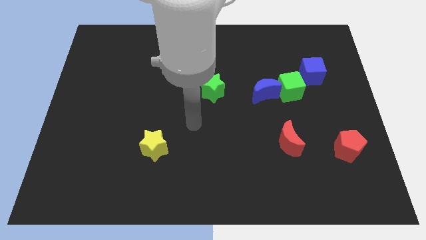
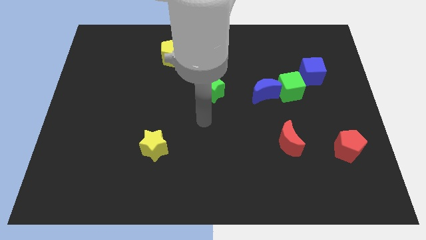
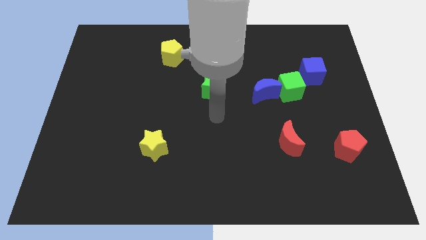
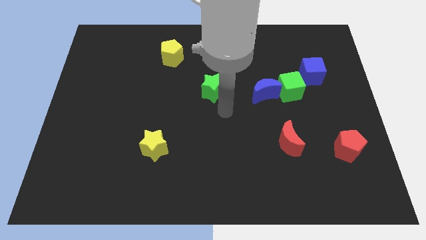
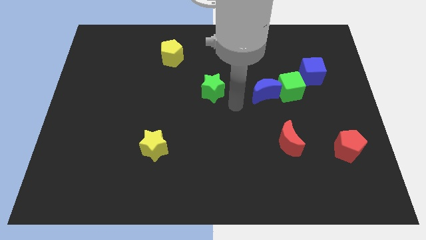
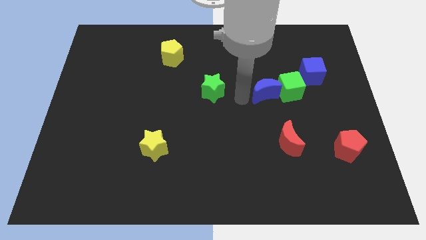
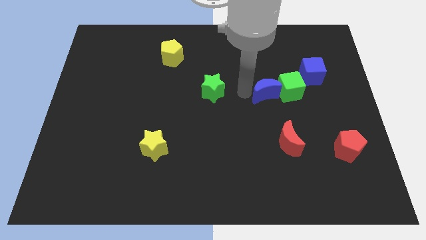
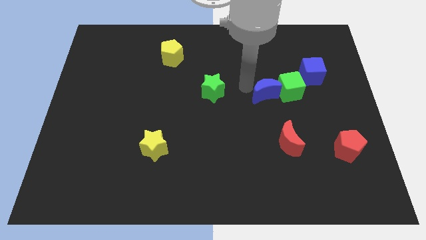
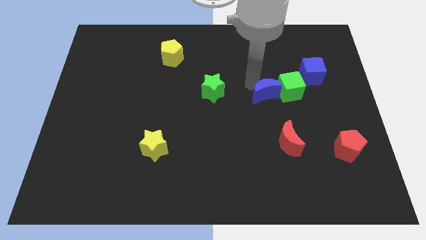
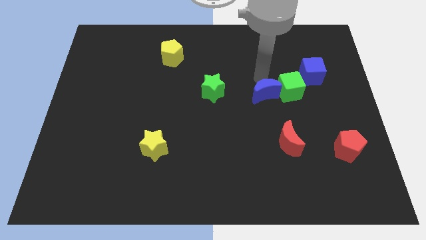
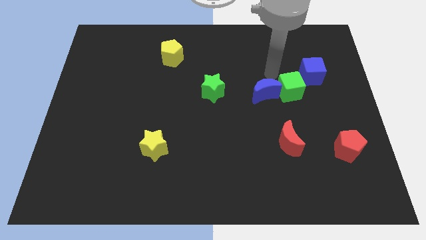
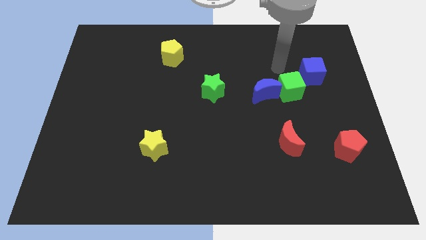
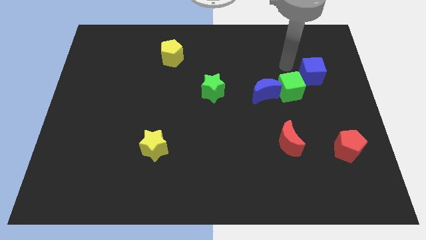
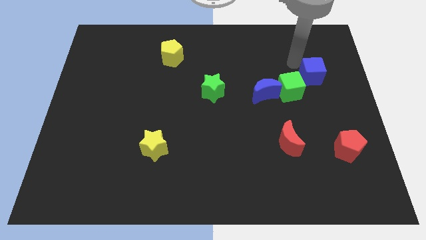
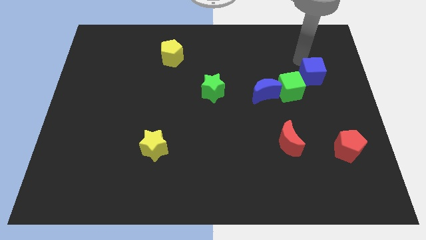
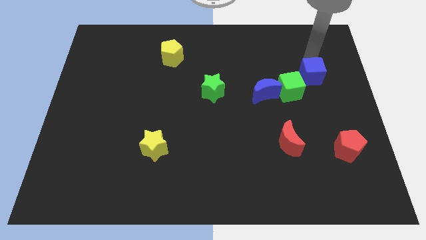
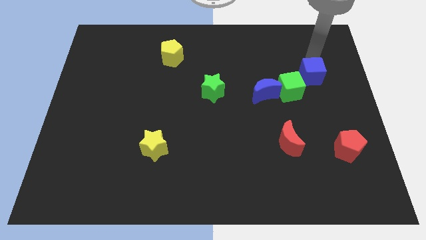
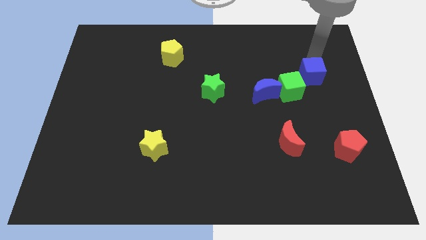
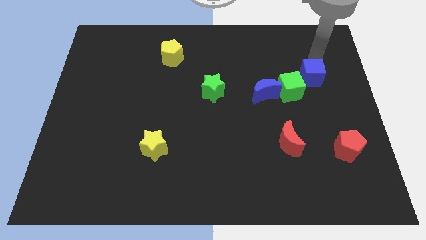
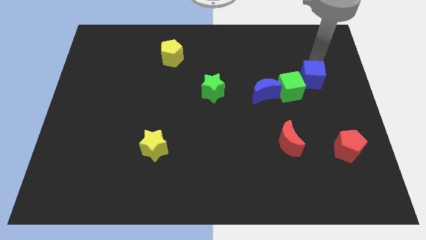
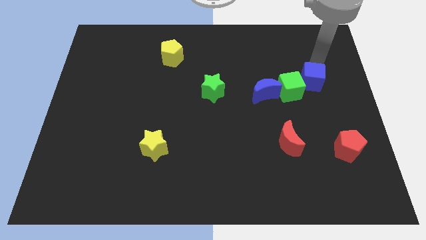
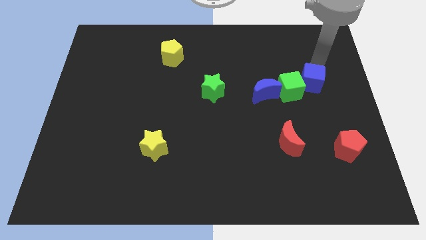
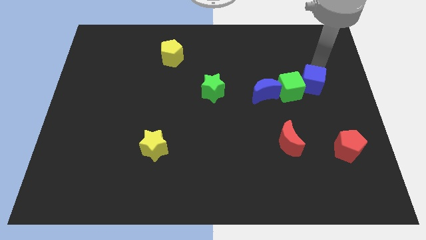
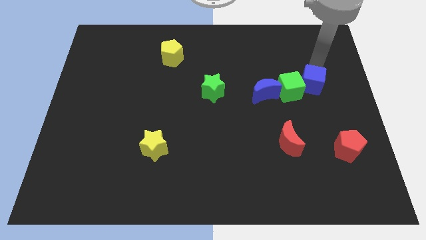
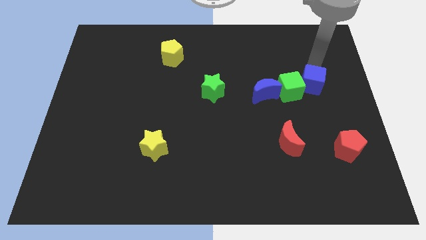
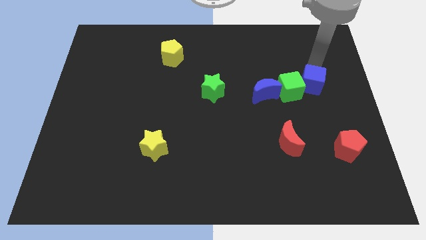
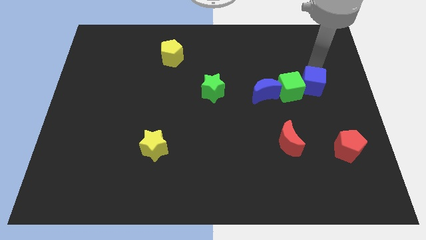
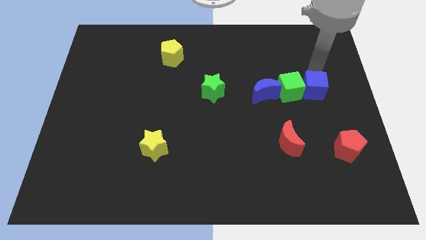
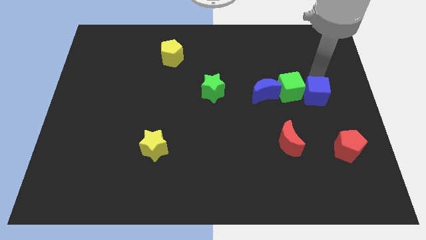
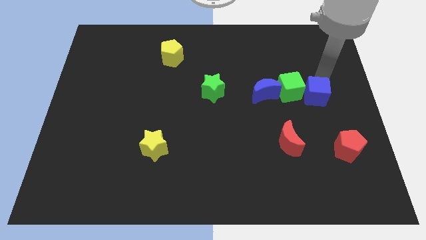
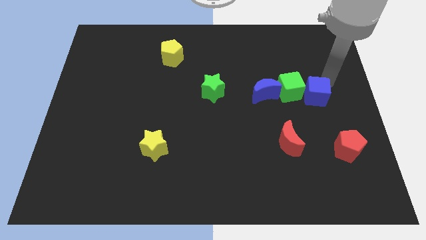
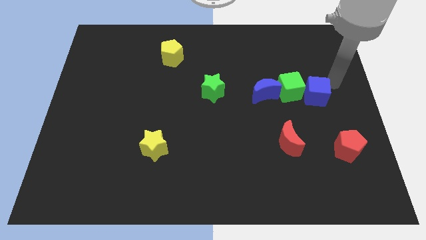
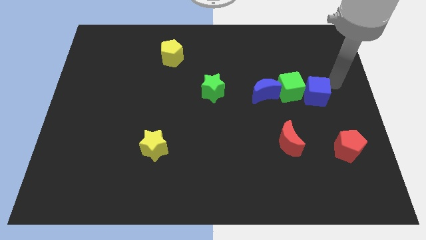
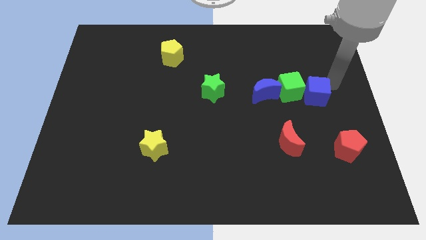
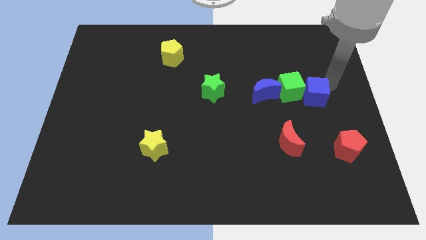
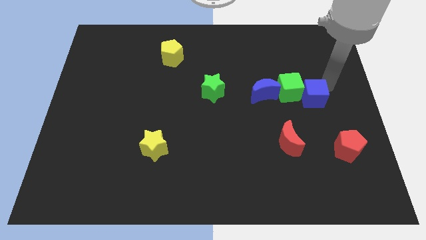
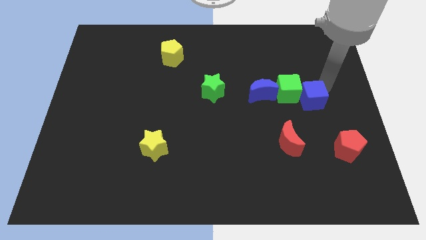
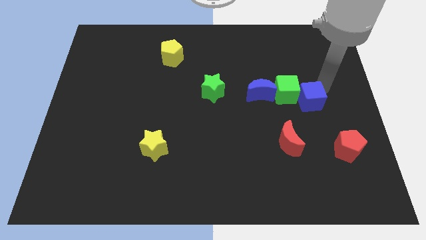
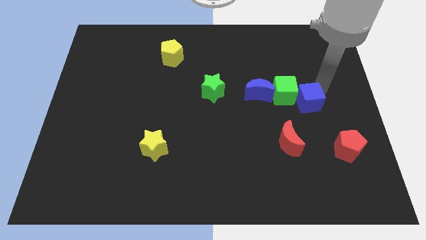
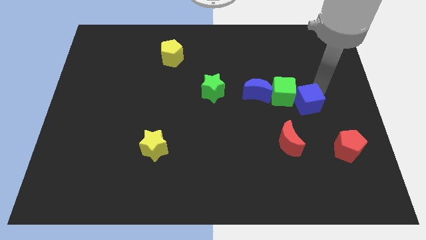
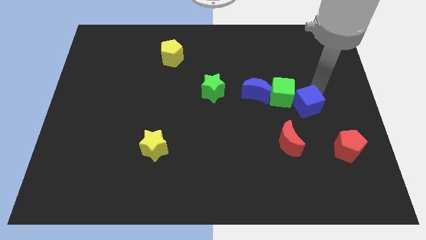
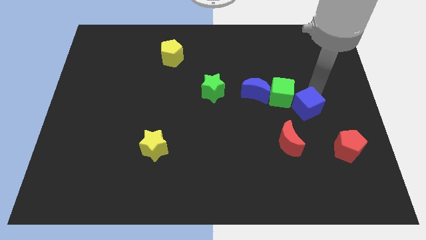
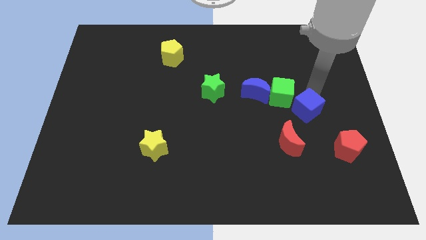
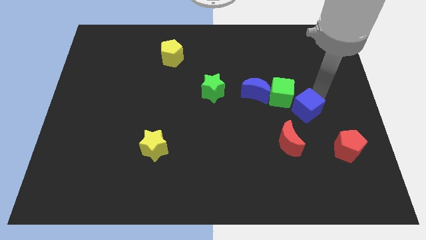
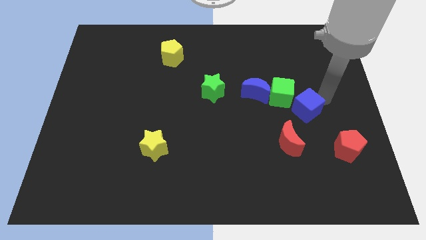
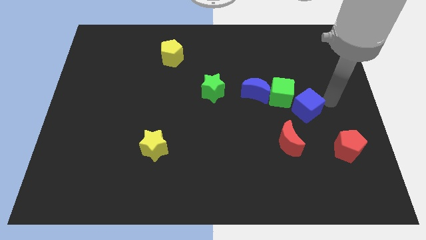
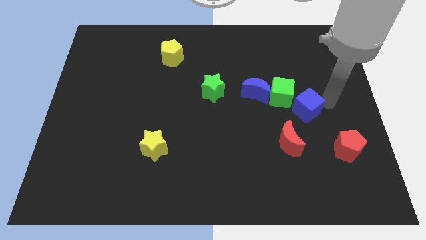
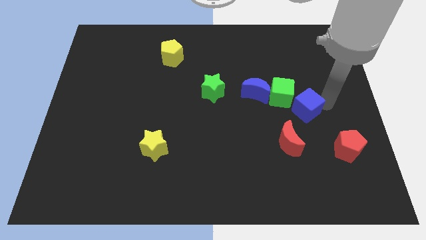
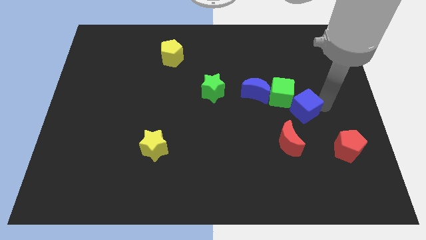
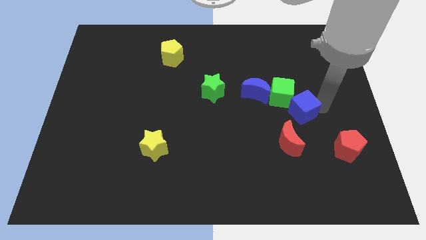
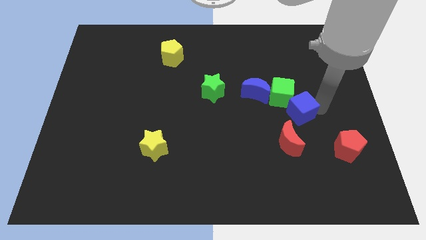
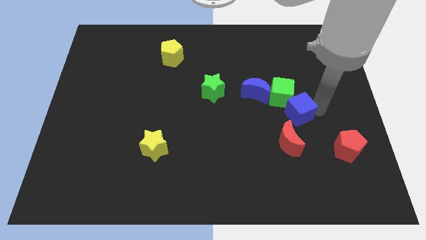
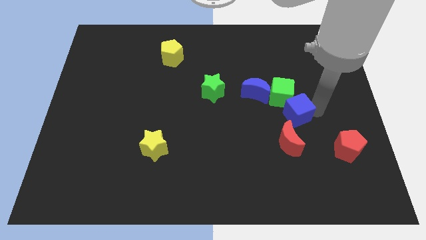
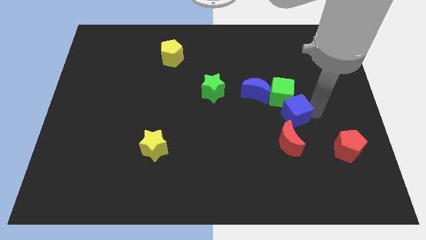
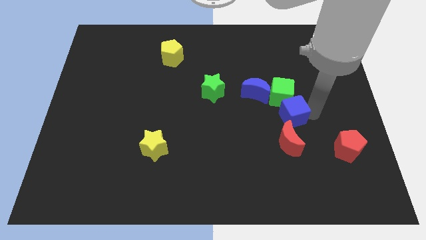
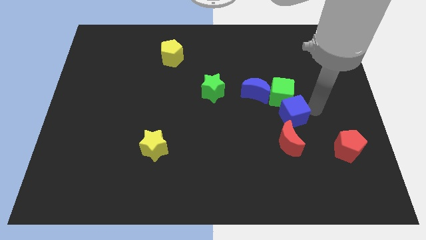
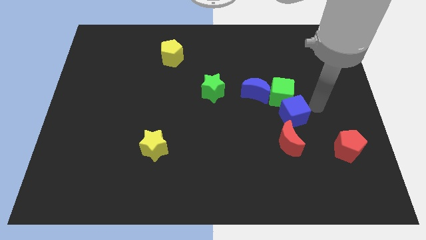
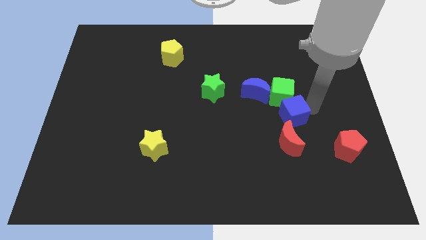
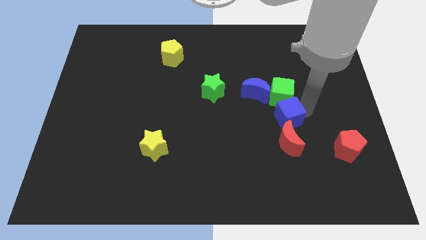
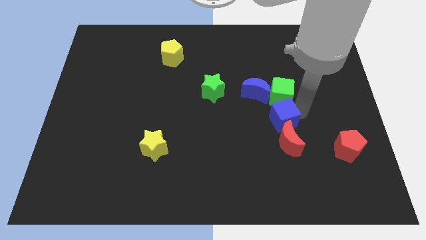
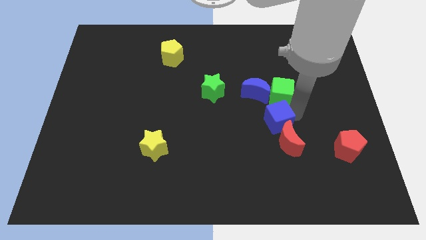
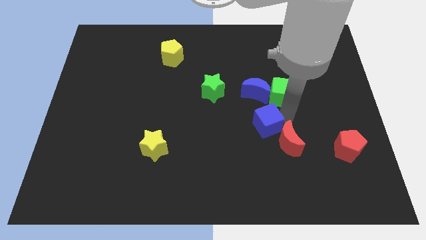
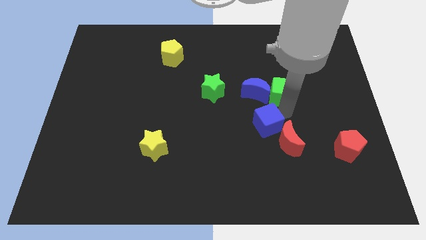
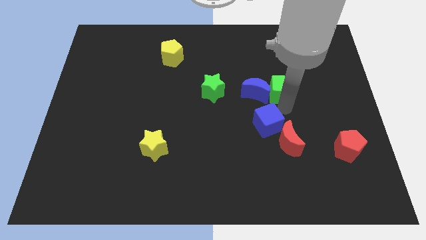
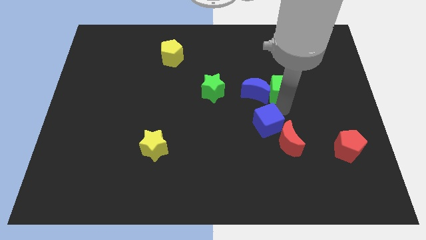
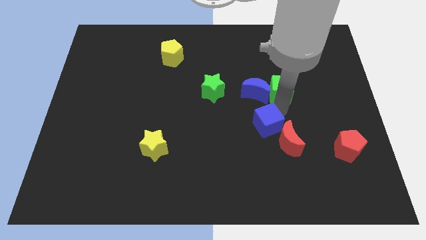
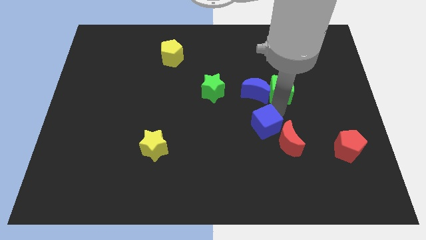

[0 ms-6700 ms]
slide the blue cube diagonally down and left

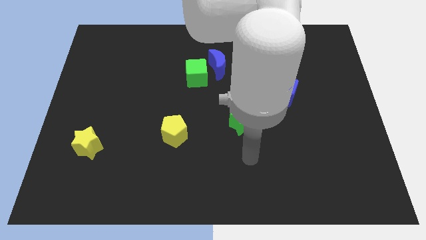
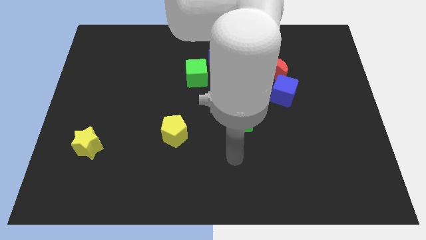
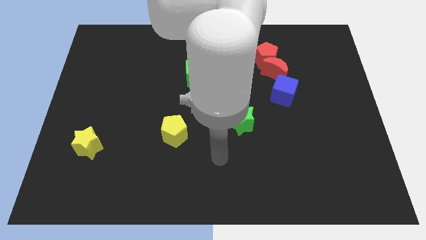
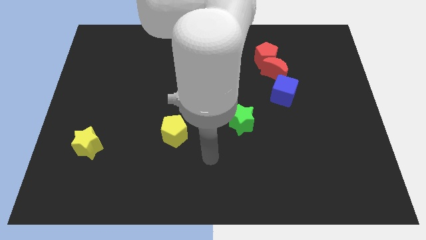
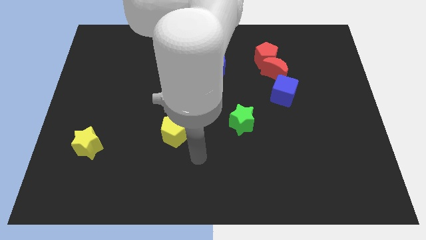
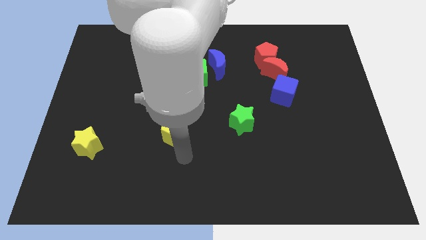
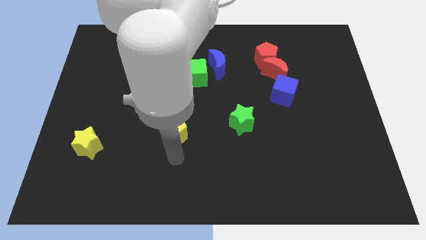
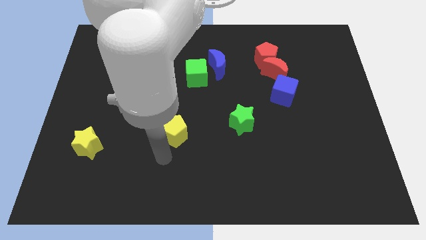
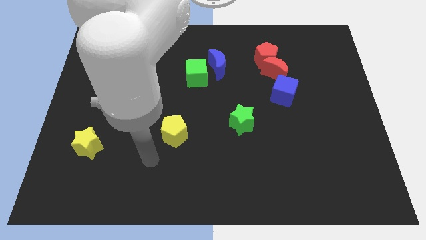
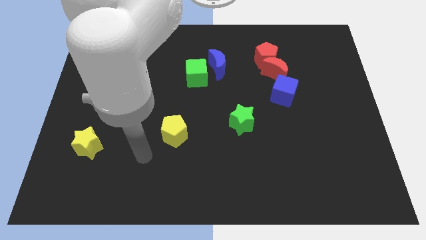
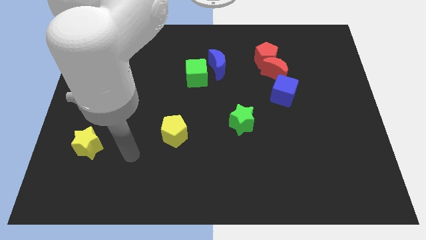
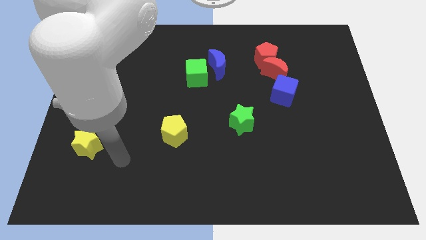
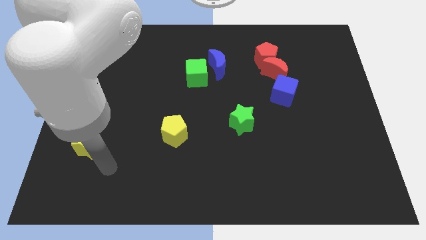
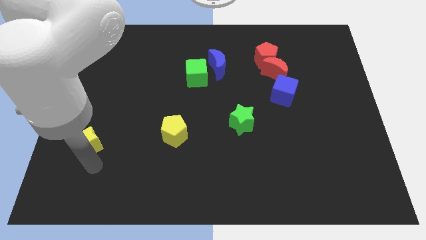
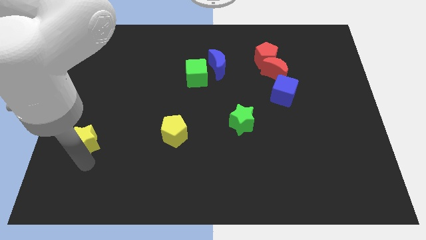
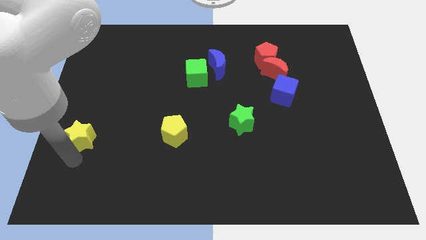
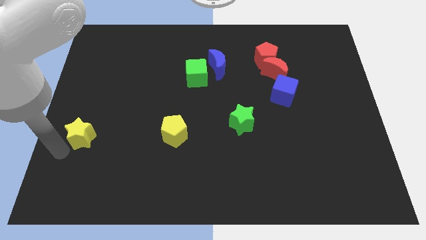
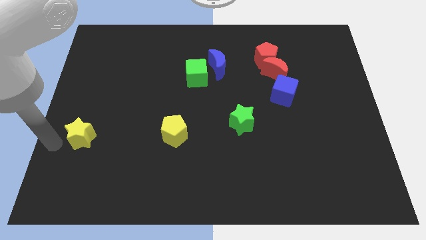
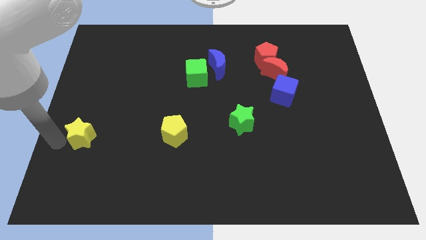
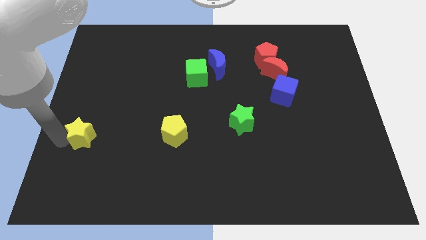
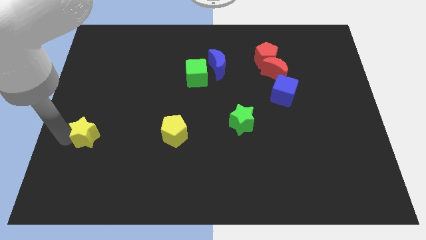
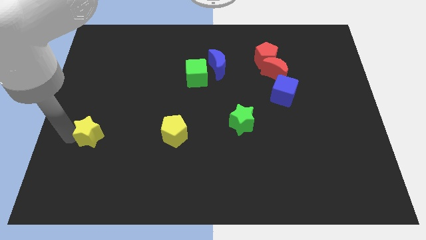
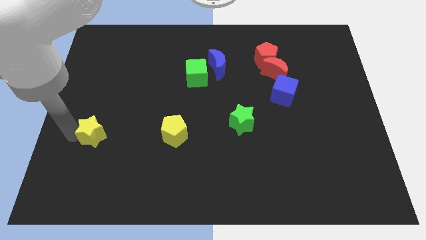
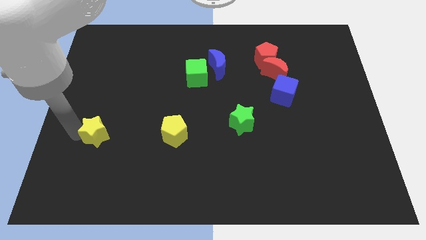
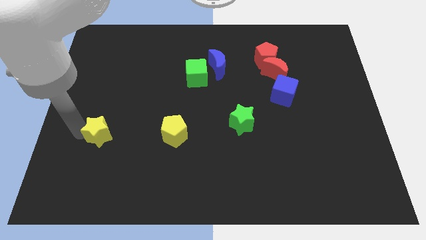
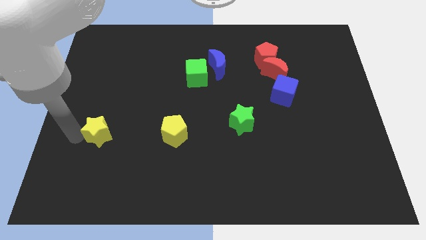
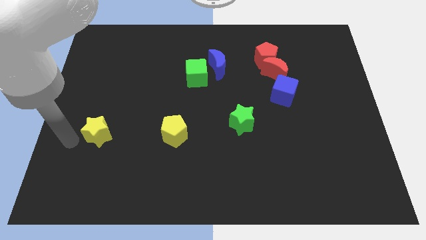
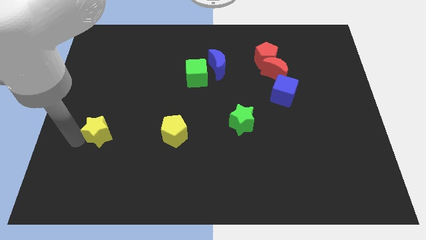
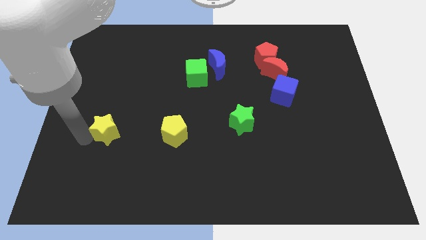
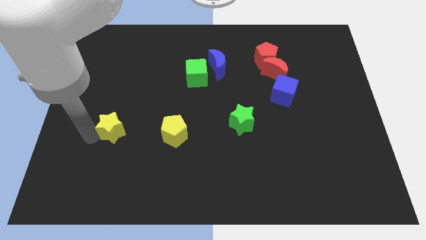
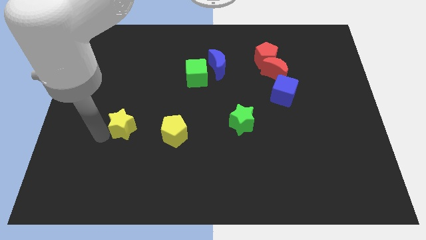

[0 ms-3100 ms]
slightly move the yellow star up and right diagonally
